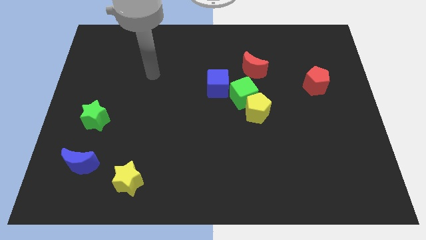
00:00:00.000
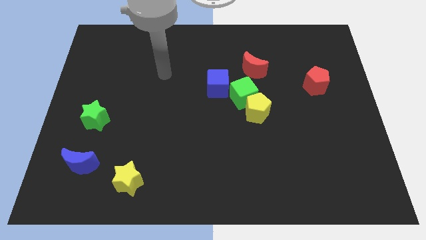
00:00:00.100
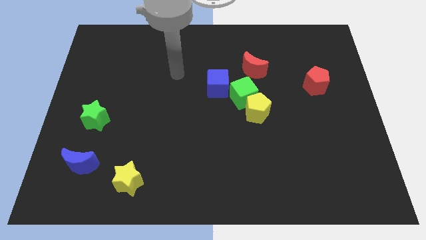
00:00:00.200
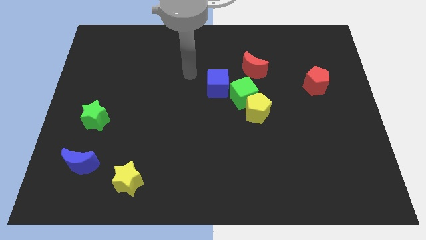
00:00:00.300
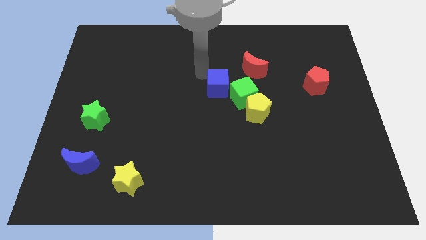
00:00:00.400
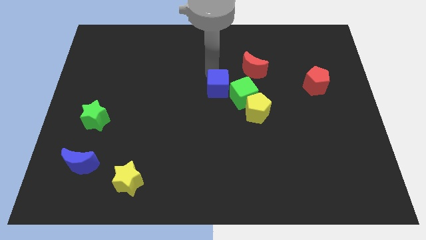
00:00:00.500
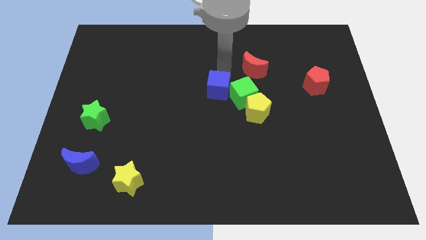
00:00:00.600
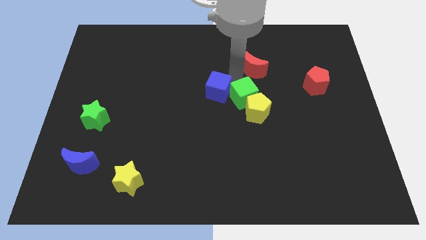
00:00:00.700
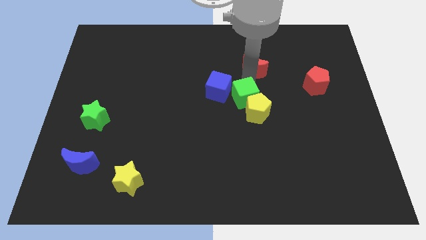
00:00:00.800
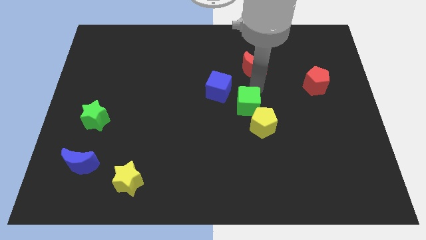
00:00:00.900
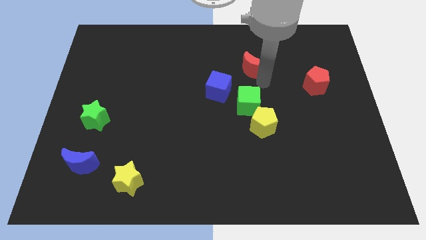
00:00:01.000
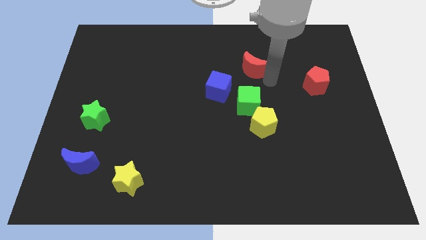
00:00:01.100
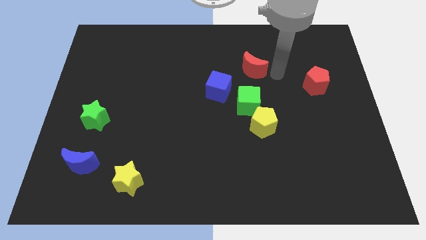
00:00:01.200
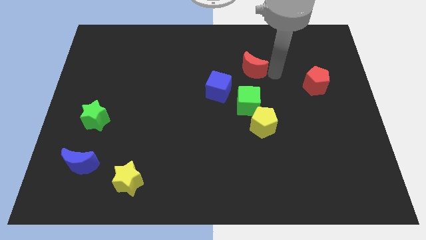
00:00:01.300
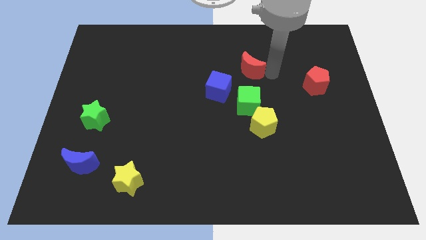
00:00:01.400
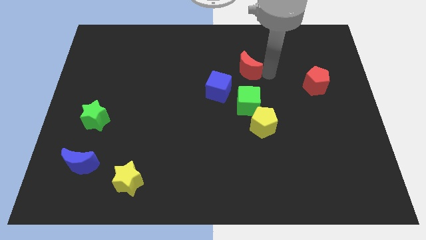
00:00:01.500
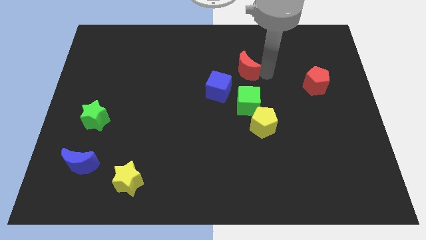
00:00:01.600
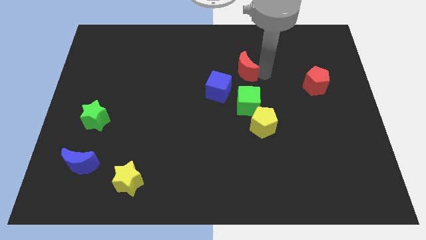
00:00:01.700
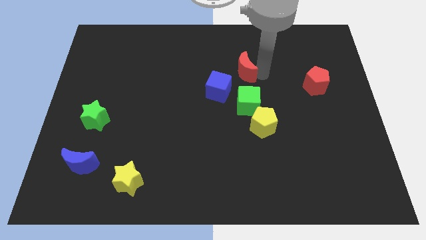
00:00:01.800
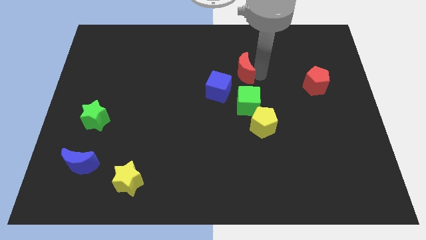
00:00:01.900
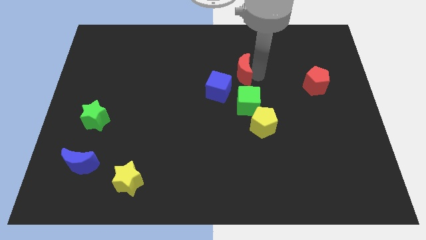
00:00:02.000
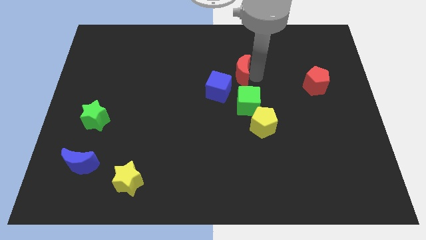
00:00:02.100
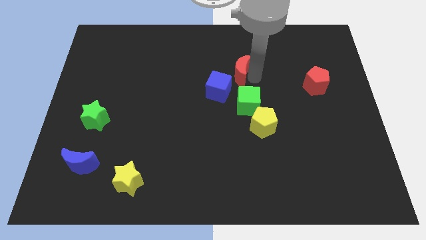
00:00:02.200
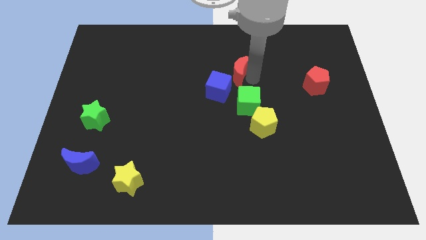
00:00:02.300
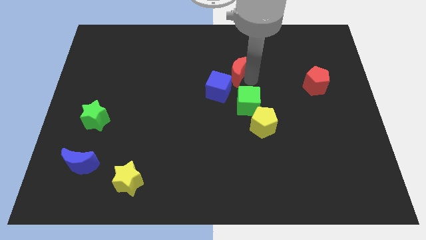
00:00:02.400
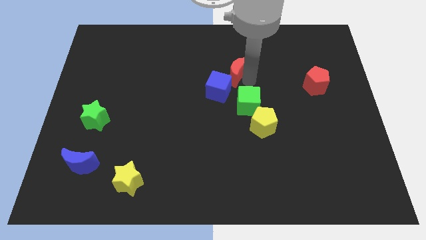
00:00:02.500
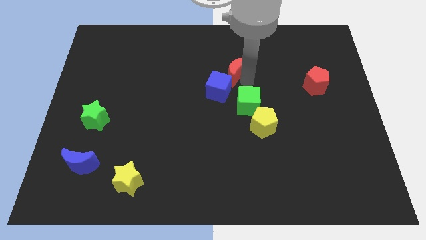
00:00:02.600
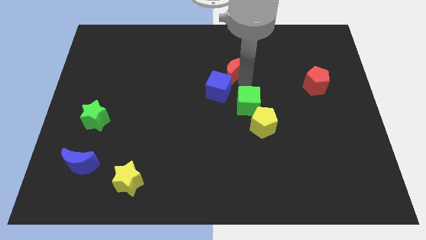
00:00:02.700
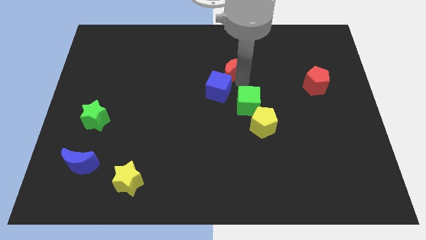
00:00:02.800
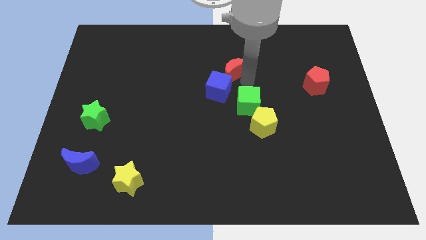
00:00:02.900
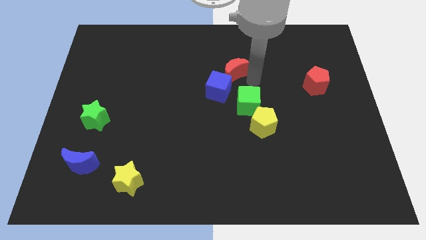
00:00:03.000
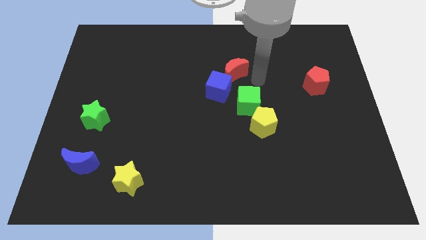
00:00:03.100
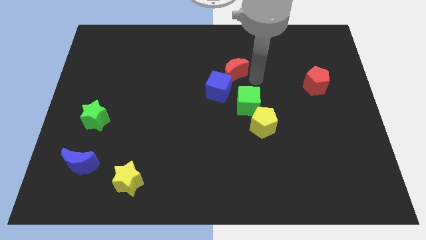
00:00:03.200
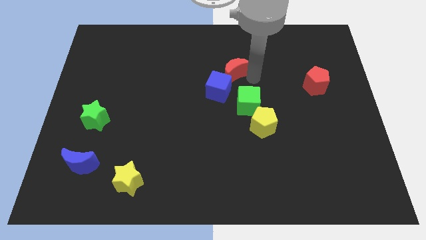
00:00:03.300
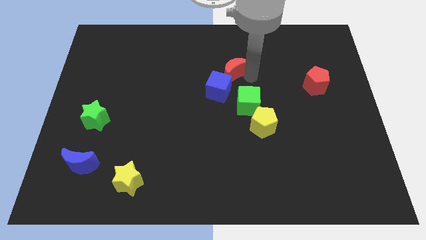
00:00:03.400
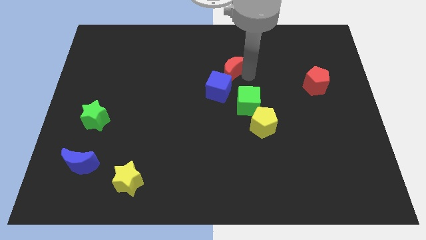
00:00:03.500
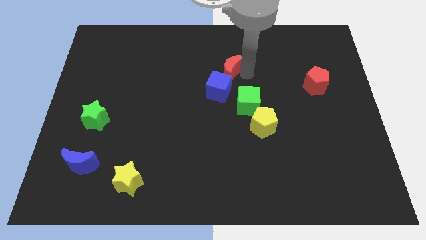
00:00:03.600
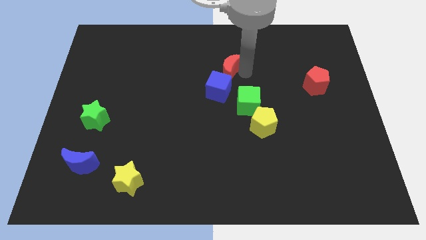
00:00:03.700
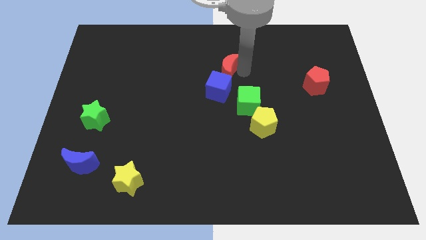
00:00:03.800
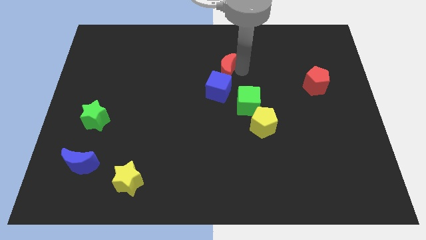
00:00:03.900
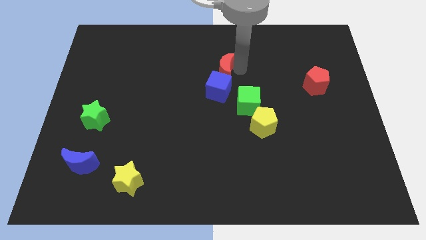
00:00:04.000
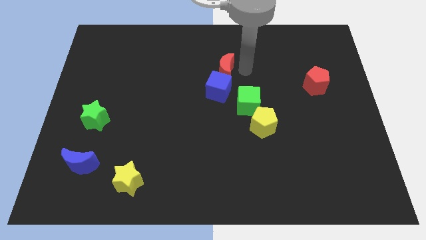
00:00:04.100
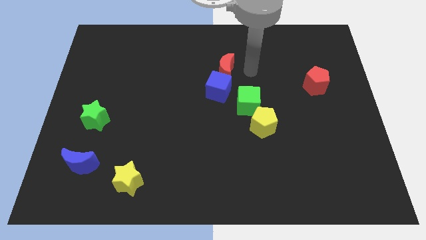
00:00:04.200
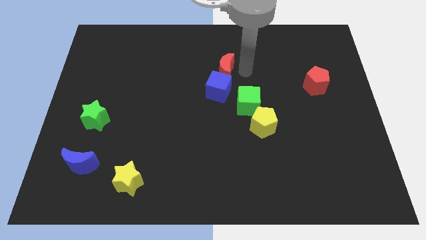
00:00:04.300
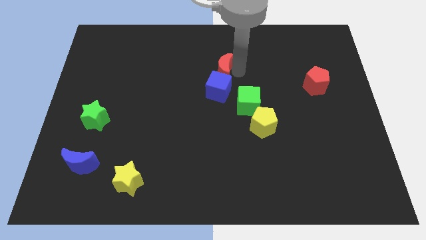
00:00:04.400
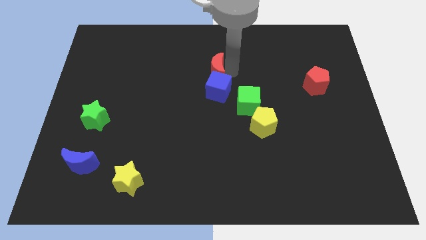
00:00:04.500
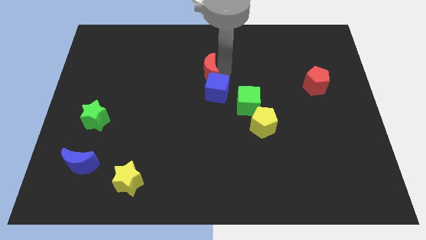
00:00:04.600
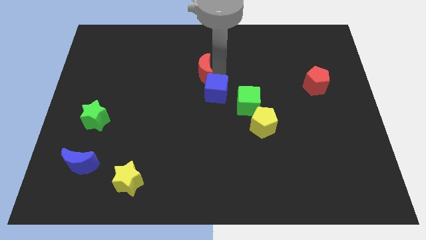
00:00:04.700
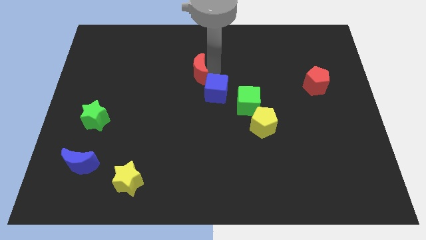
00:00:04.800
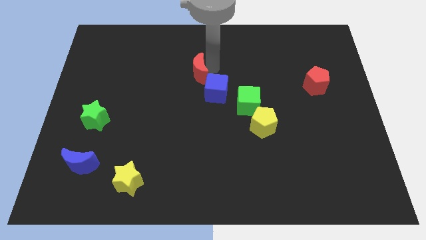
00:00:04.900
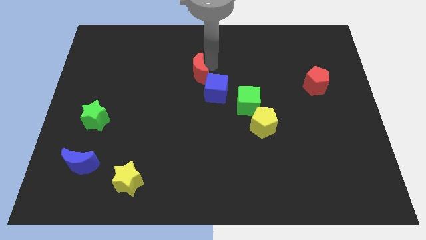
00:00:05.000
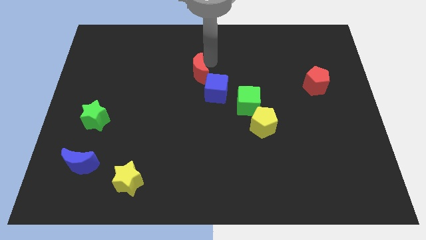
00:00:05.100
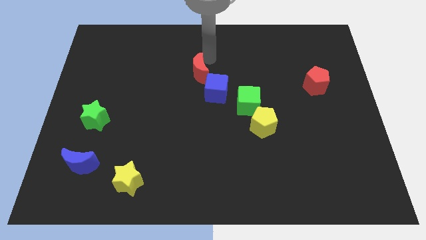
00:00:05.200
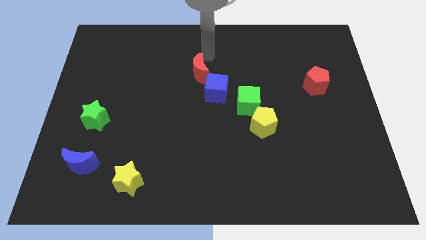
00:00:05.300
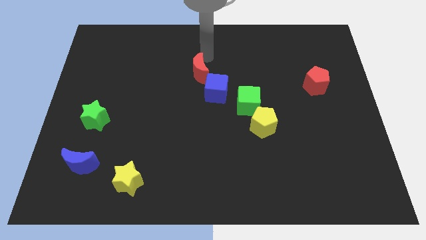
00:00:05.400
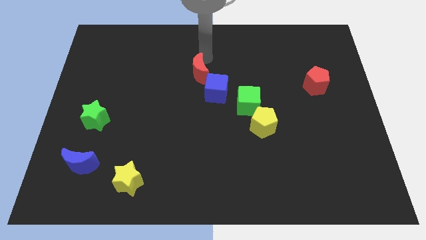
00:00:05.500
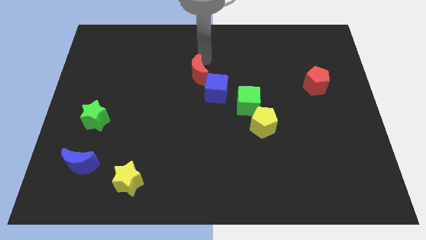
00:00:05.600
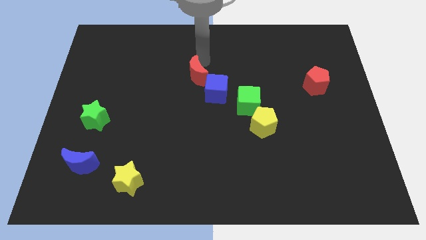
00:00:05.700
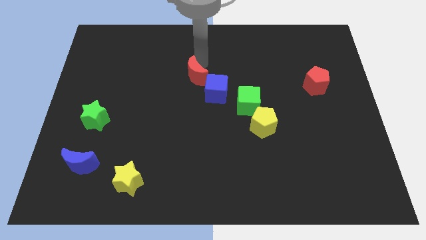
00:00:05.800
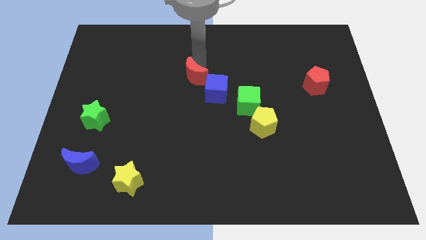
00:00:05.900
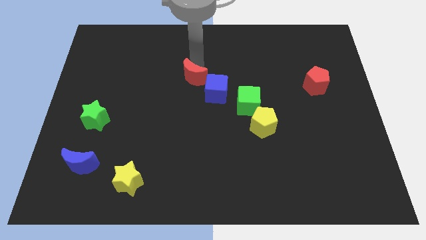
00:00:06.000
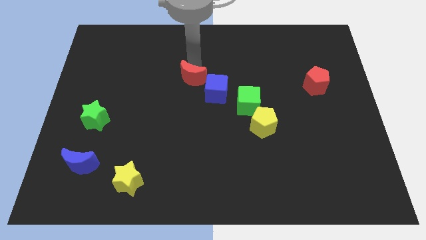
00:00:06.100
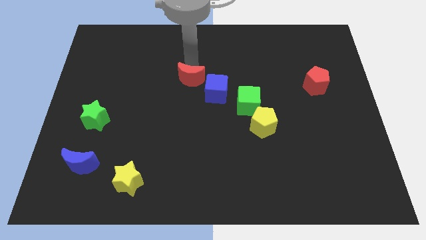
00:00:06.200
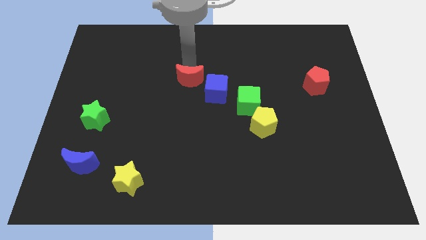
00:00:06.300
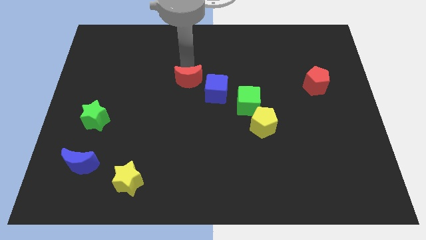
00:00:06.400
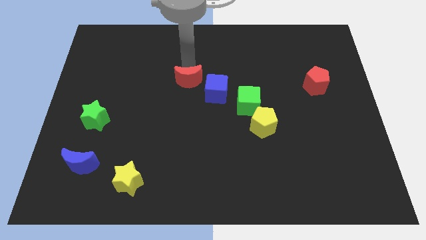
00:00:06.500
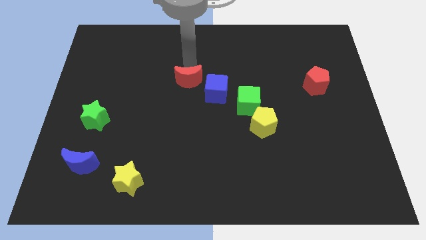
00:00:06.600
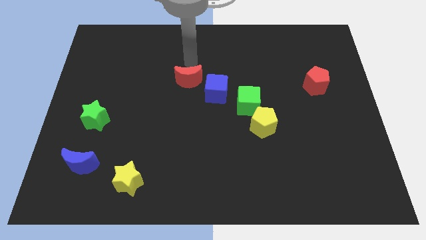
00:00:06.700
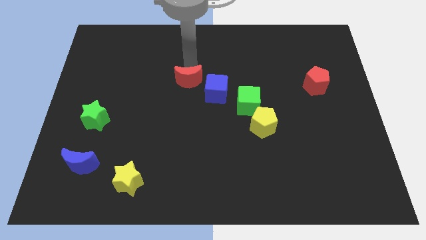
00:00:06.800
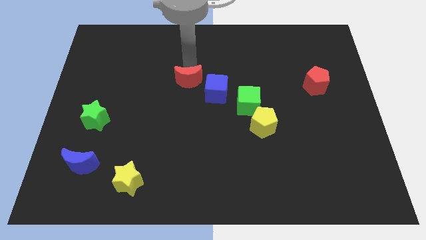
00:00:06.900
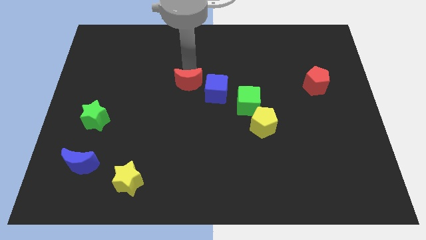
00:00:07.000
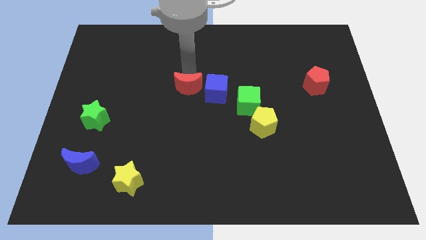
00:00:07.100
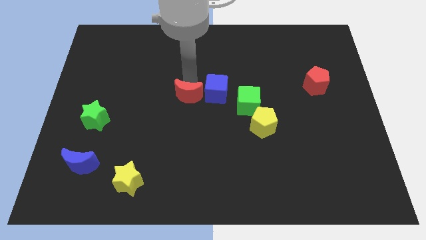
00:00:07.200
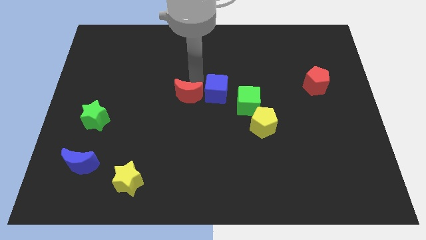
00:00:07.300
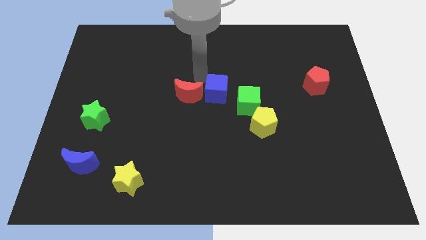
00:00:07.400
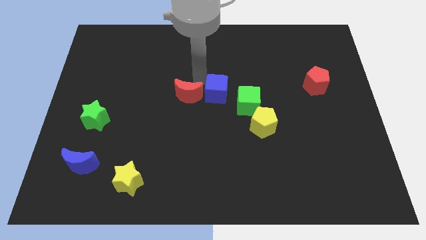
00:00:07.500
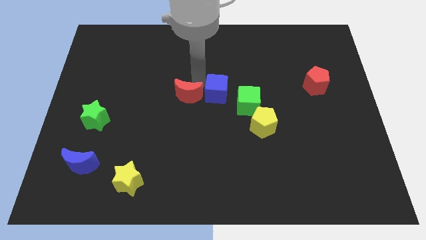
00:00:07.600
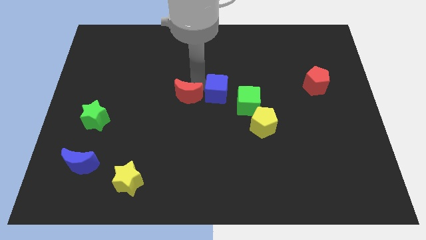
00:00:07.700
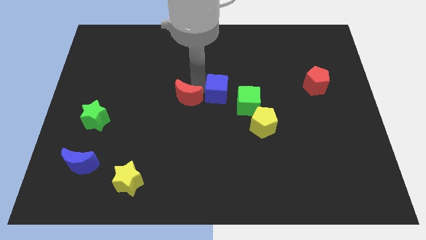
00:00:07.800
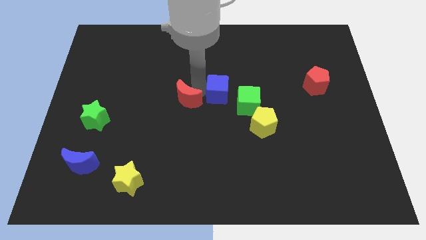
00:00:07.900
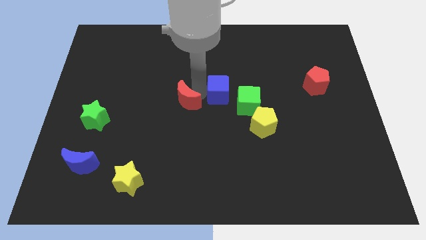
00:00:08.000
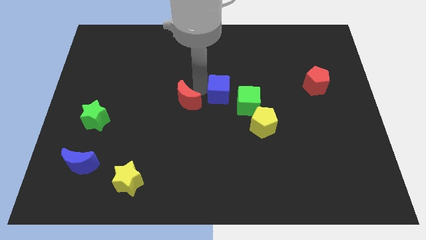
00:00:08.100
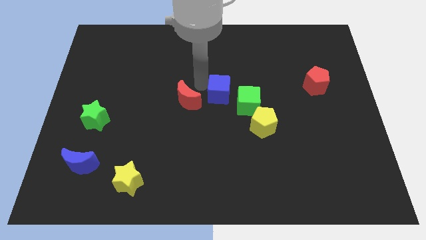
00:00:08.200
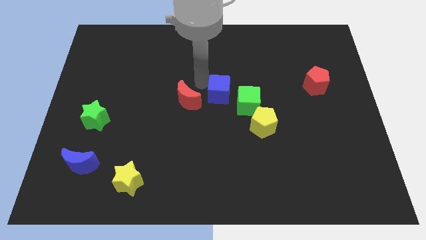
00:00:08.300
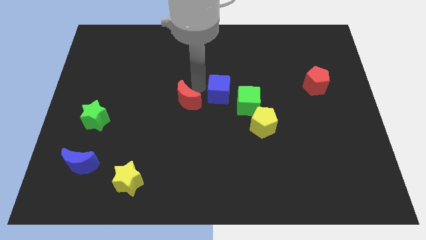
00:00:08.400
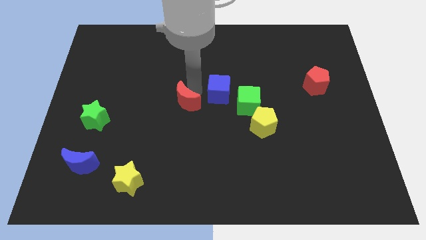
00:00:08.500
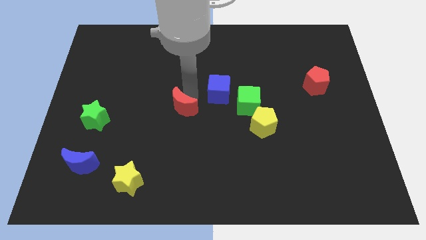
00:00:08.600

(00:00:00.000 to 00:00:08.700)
move the red moon diagonally down and to the left
